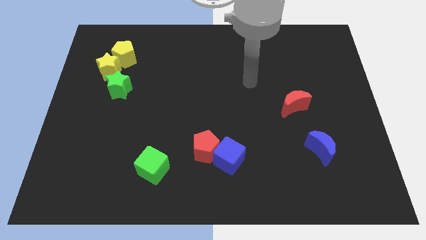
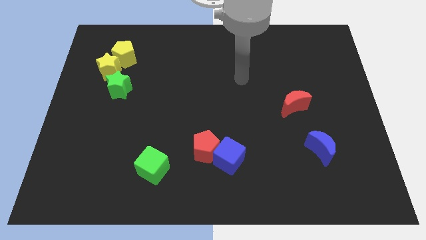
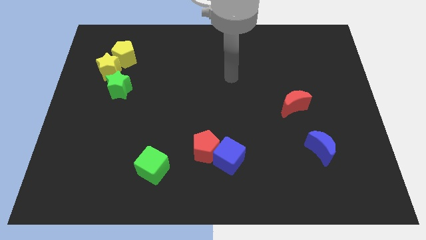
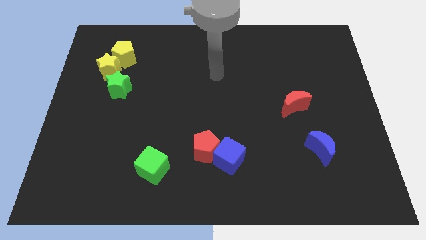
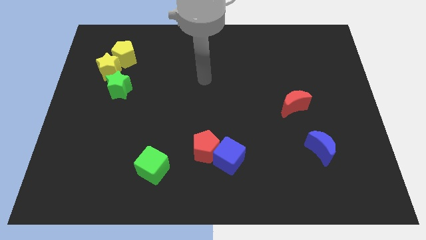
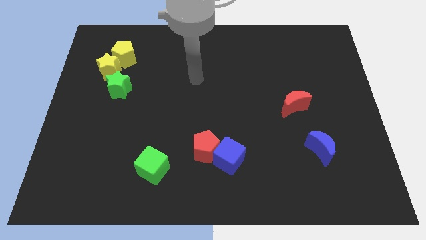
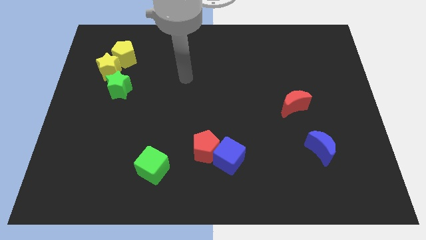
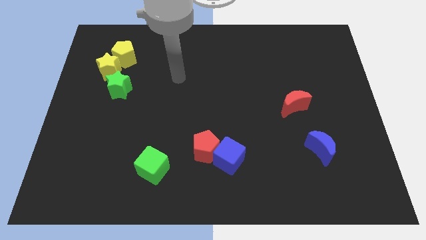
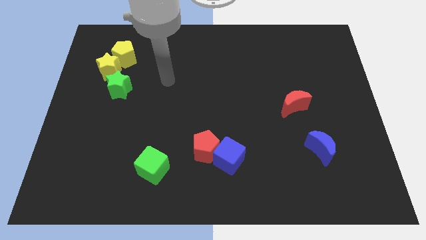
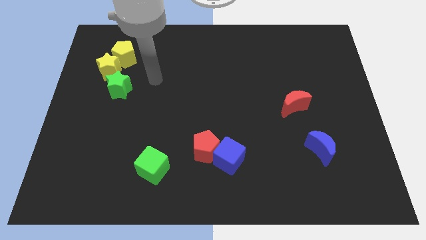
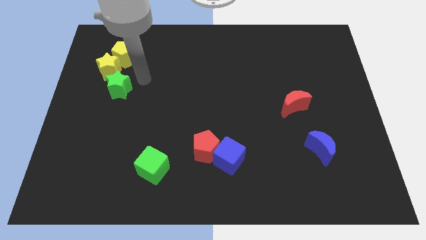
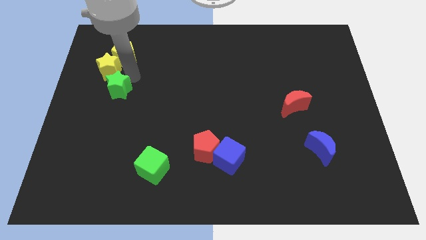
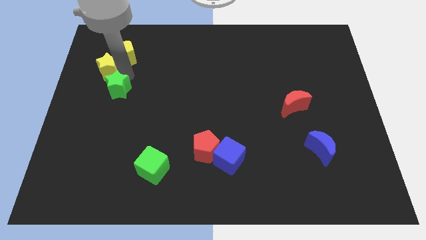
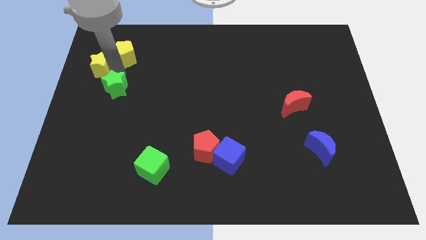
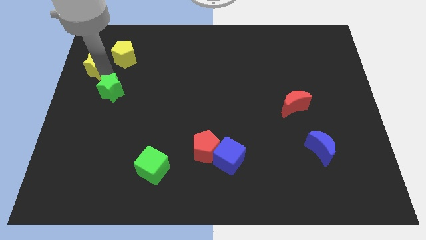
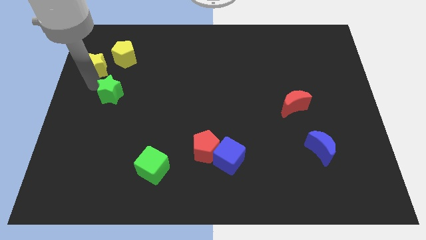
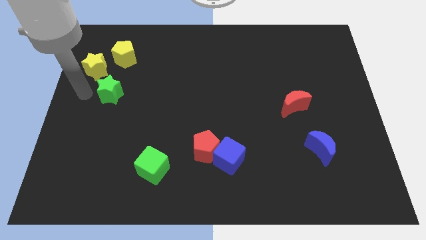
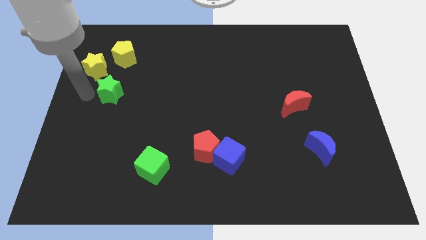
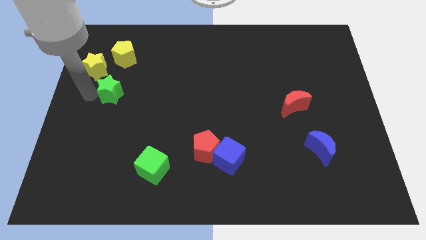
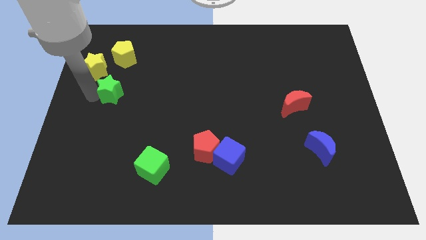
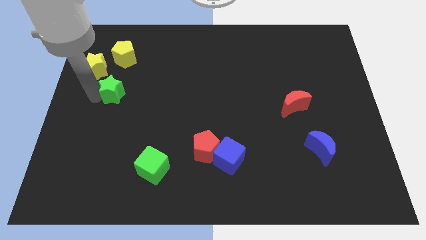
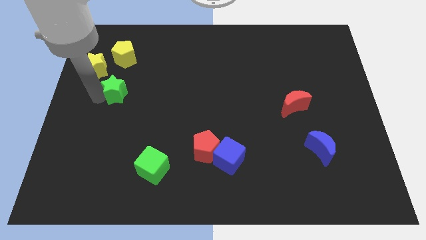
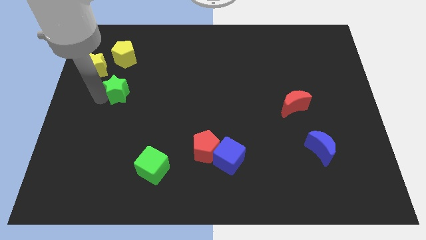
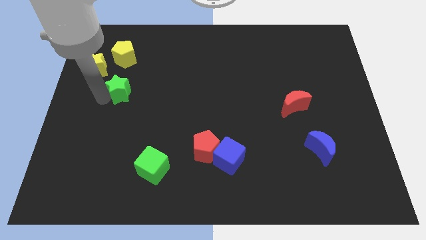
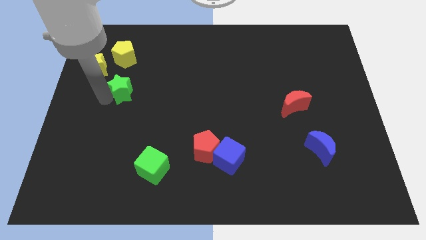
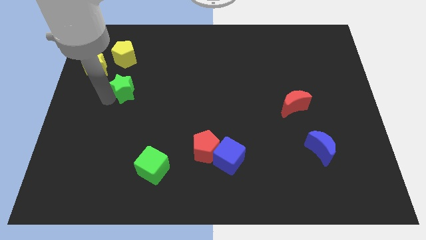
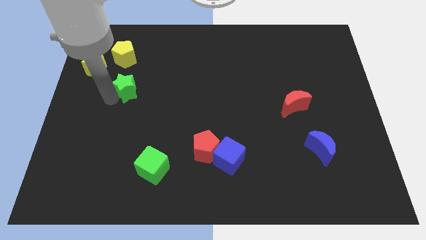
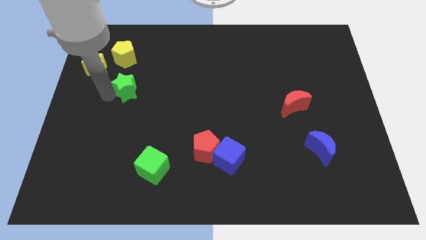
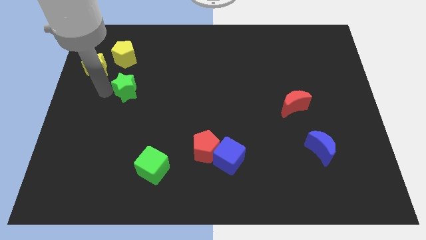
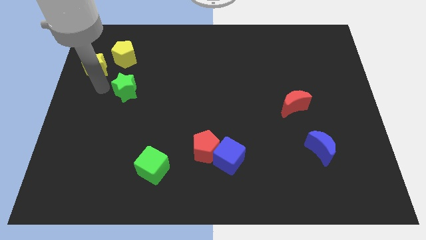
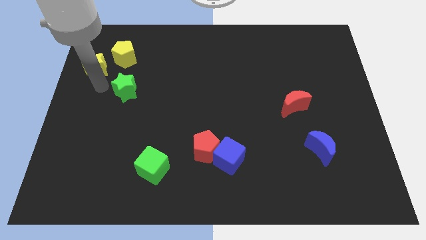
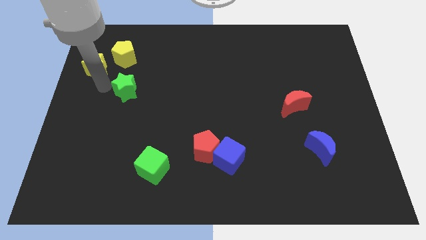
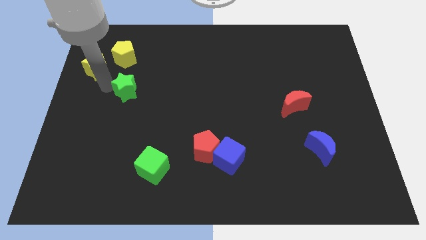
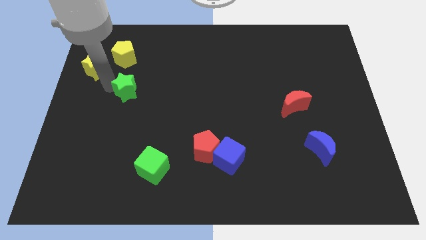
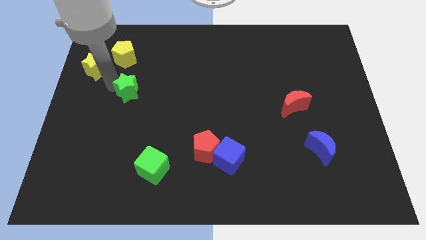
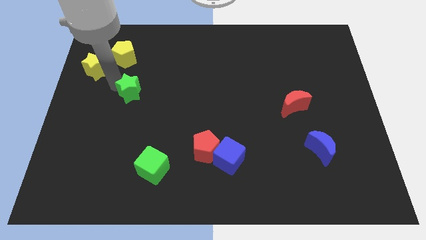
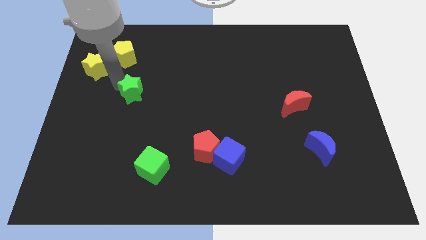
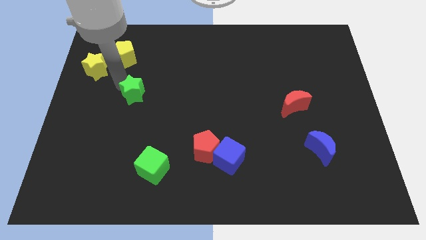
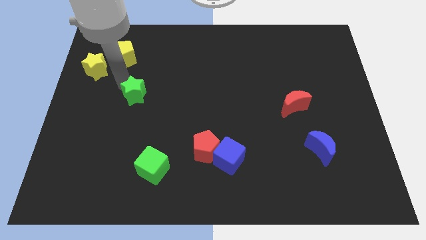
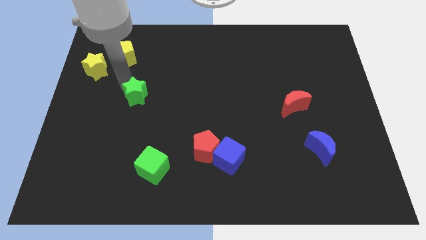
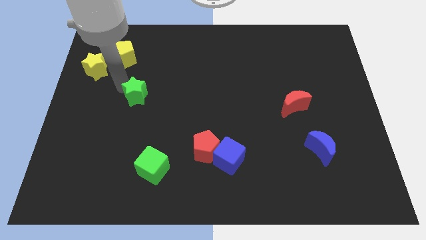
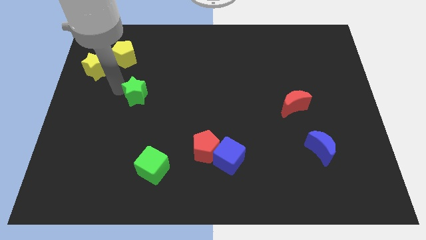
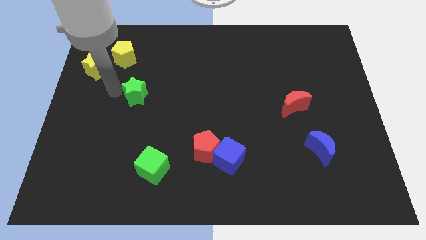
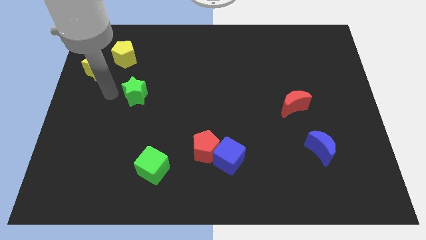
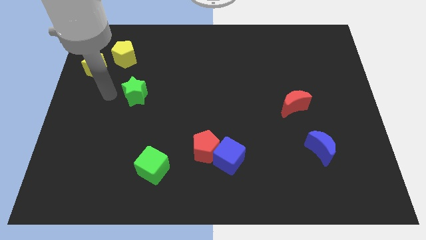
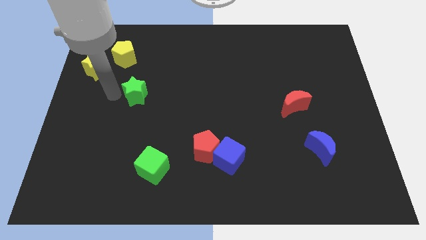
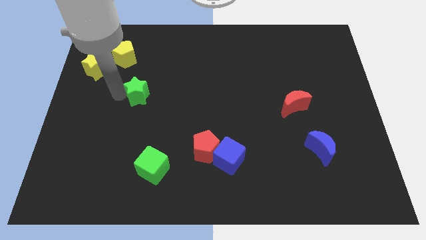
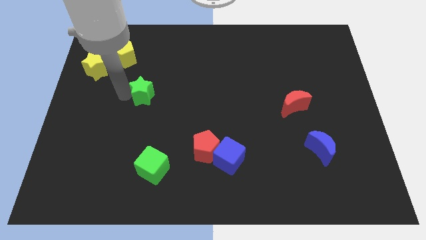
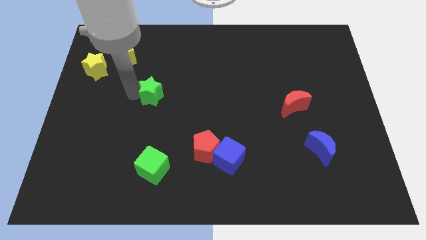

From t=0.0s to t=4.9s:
move the green star right a little

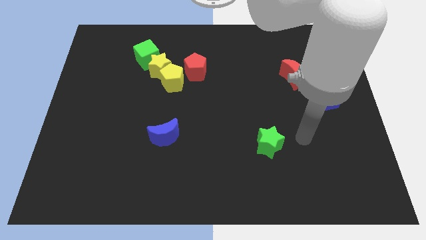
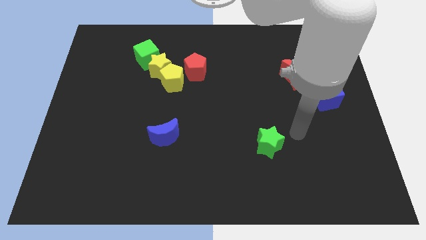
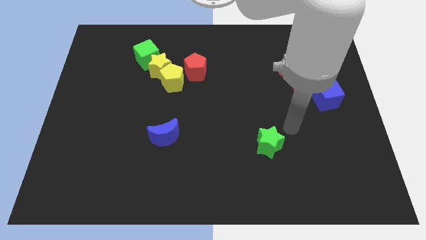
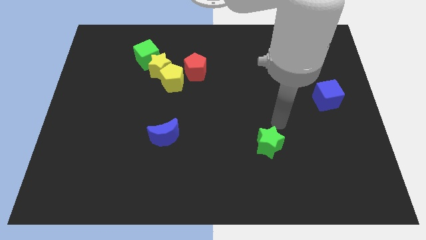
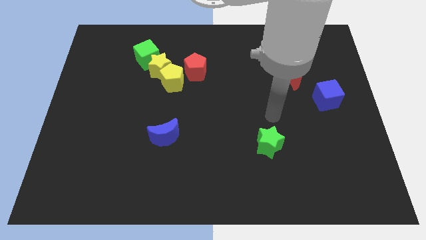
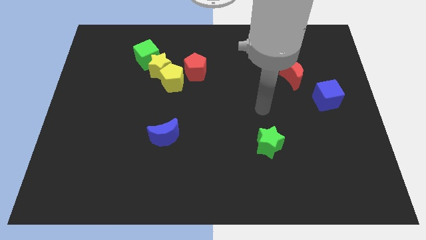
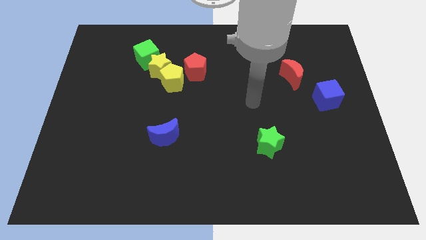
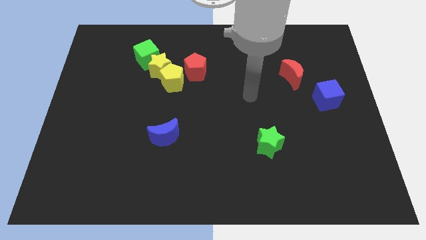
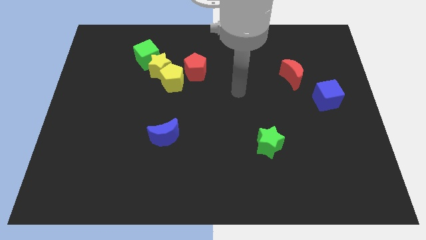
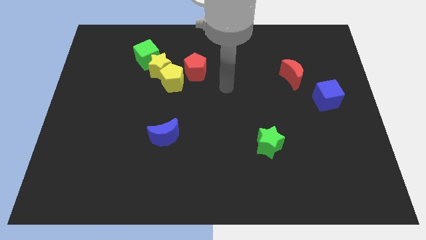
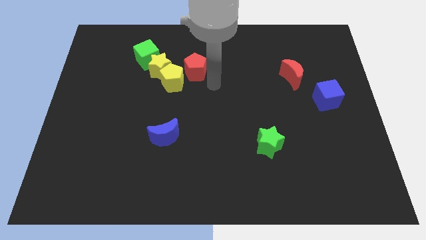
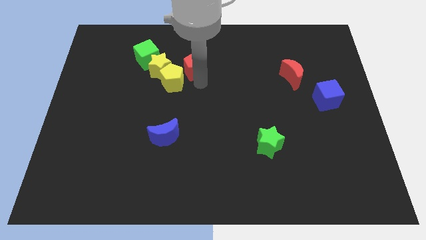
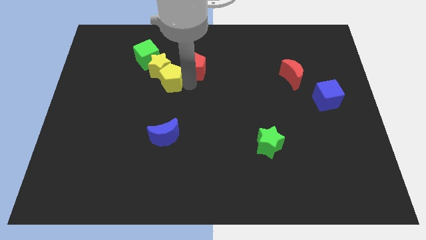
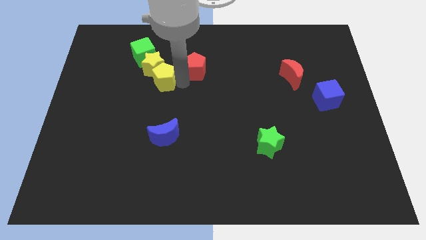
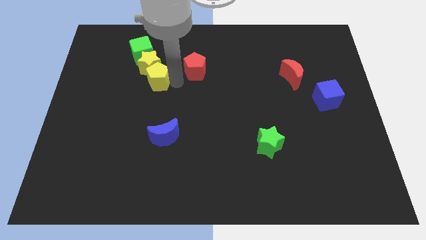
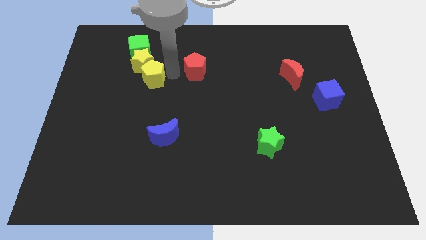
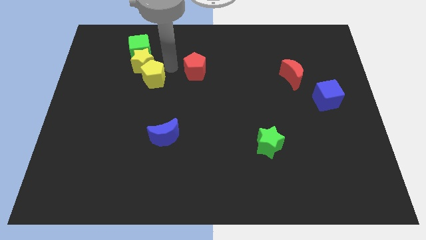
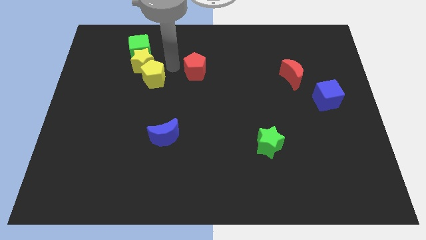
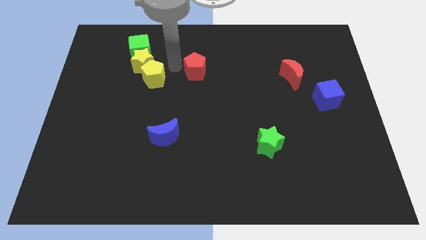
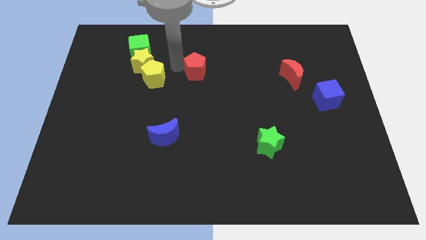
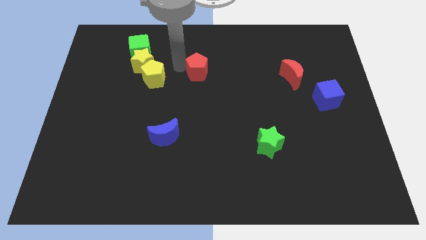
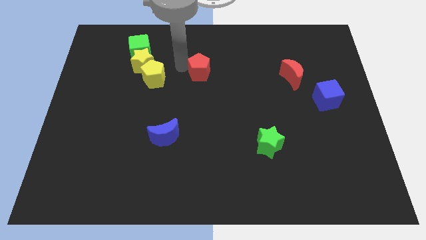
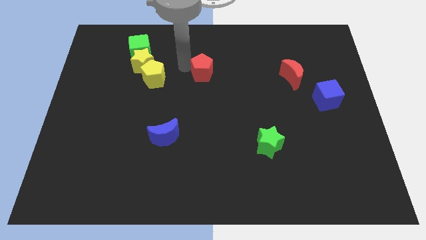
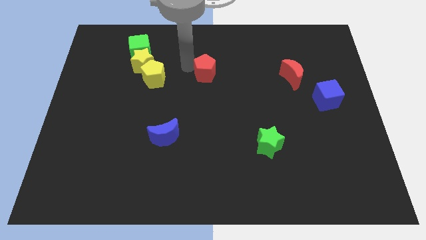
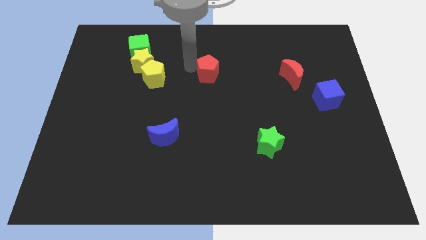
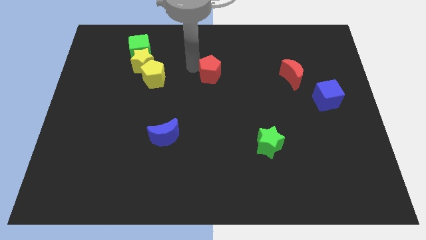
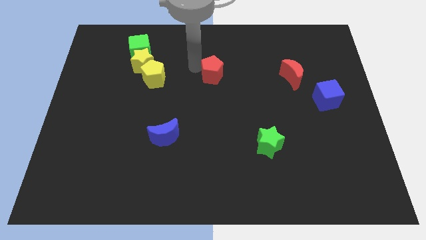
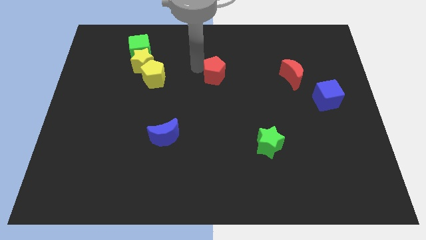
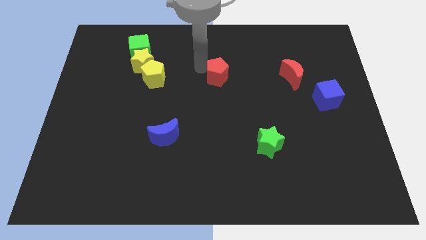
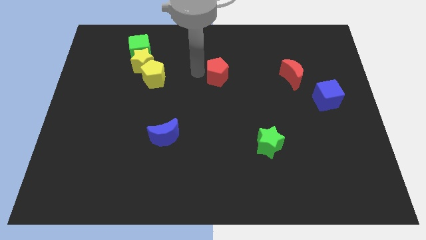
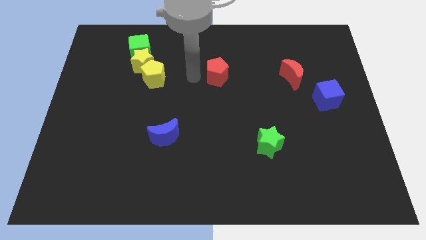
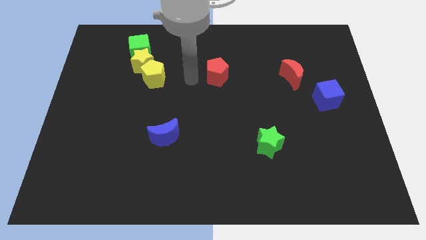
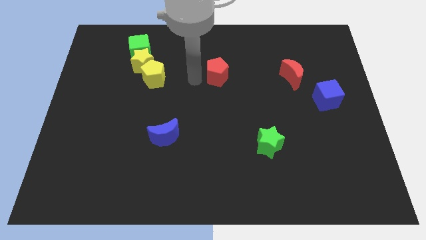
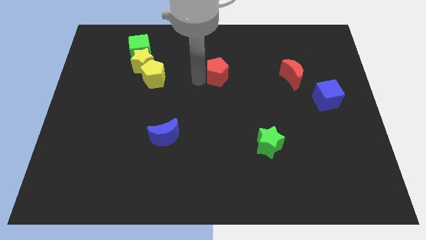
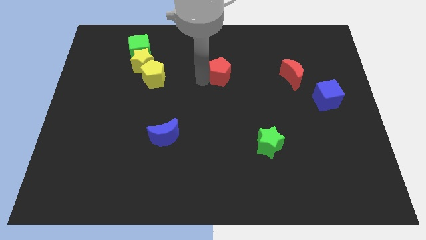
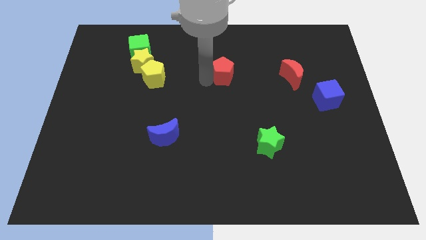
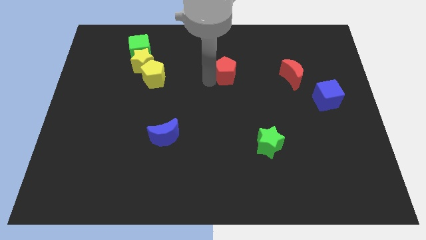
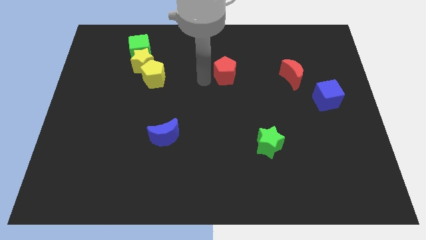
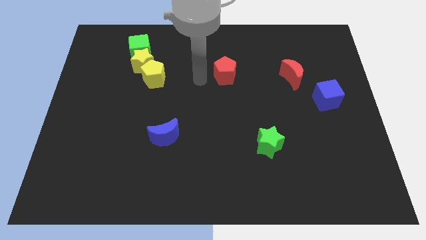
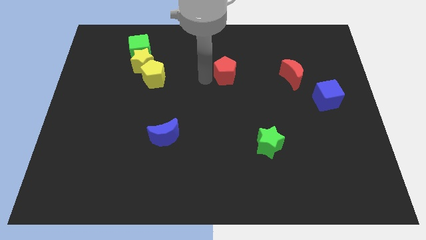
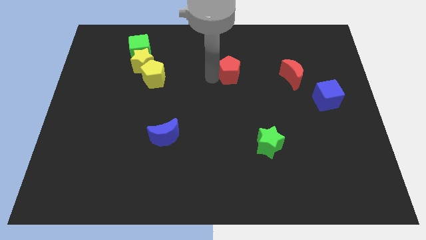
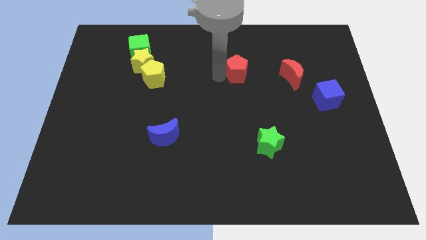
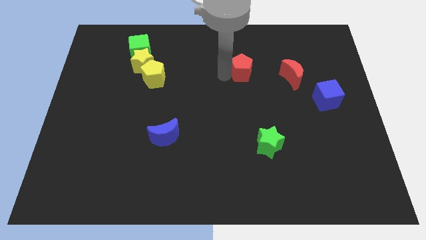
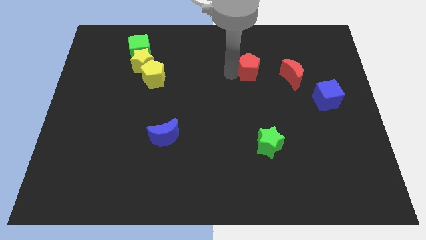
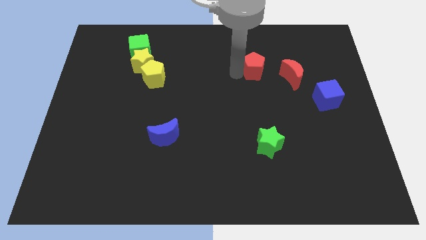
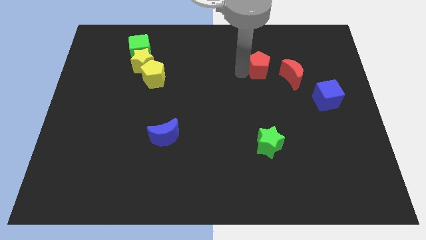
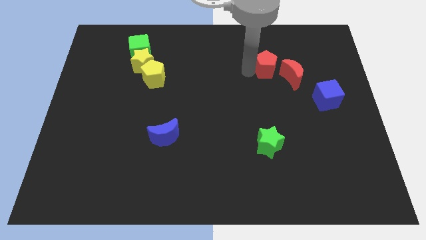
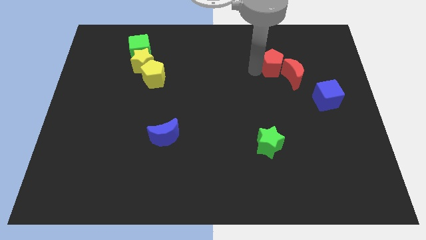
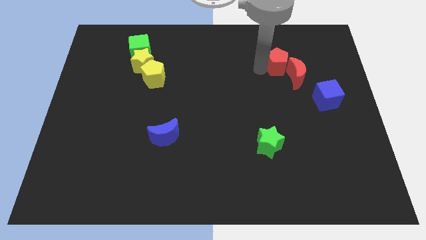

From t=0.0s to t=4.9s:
push the red pentagon right
